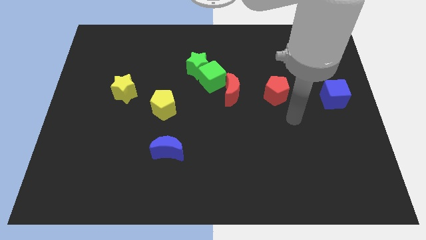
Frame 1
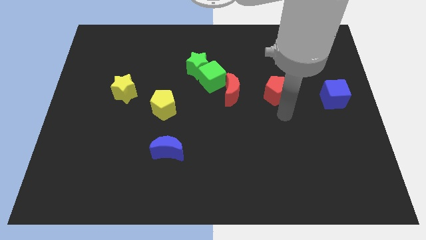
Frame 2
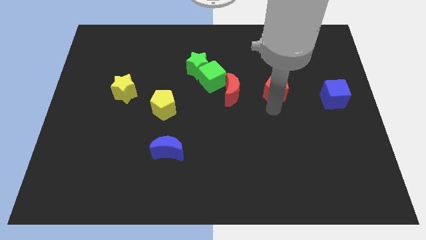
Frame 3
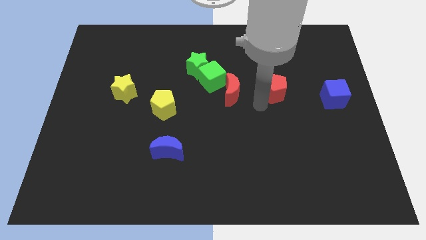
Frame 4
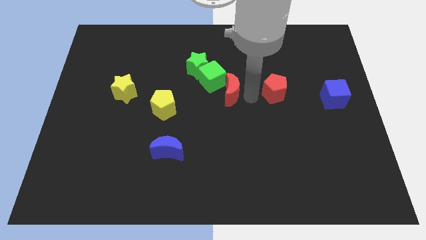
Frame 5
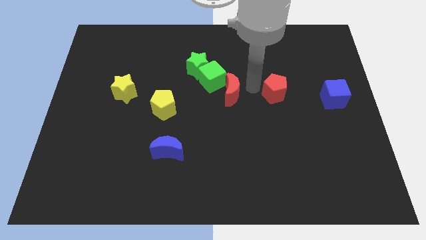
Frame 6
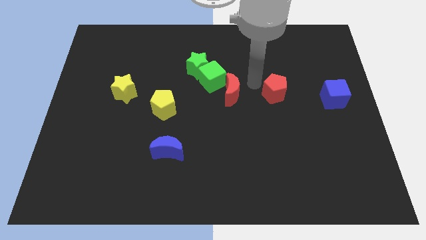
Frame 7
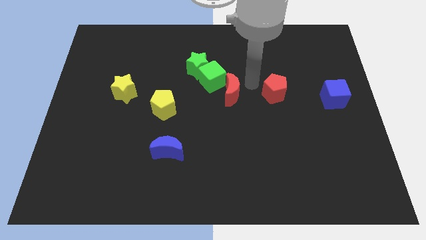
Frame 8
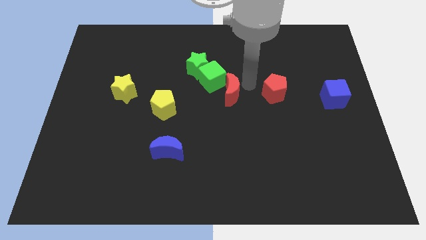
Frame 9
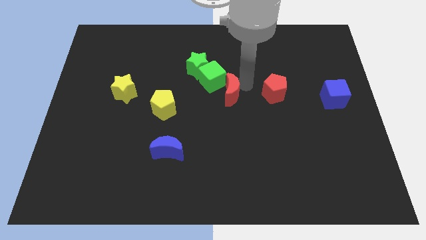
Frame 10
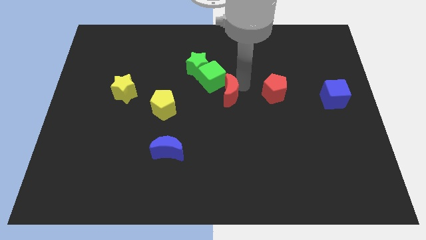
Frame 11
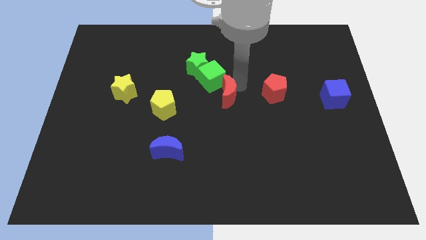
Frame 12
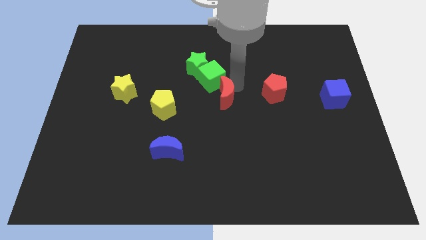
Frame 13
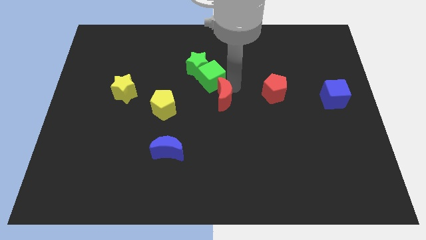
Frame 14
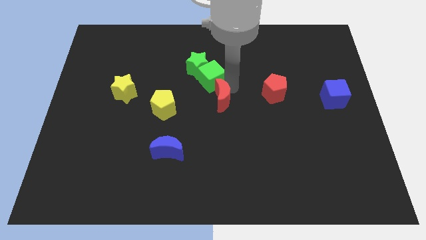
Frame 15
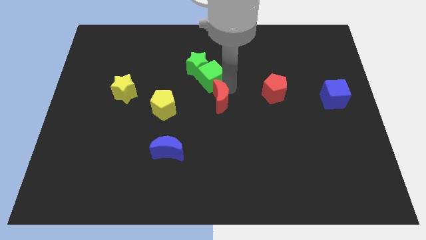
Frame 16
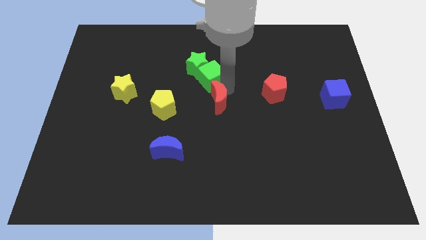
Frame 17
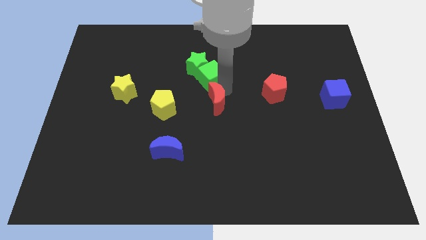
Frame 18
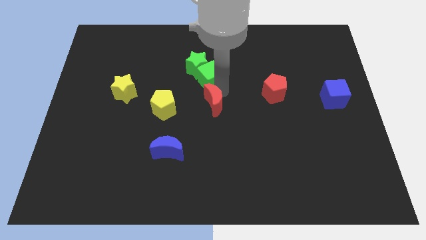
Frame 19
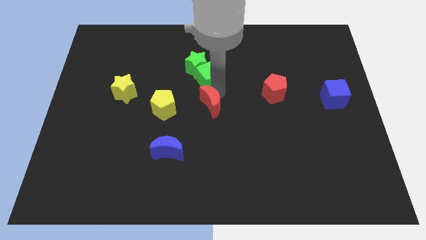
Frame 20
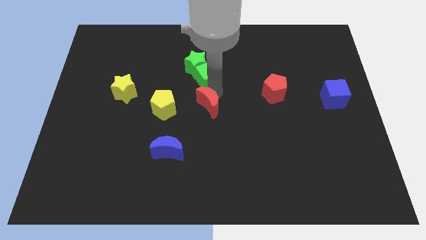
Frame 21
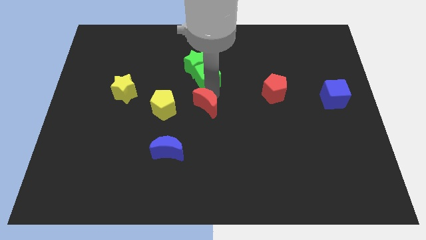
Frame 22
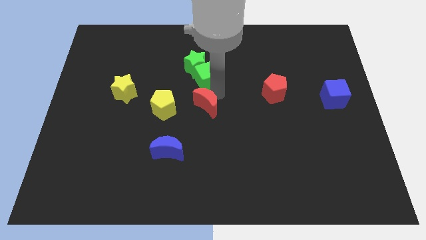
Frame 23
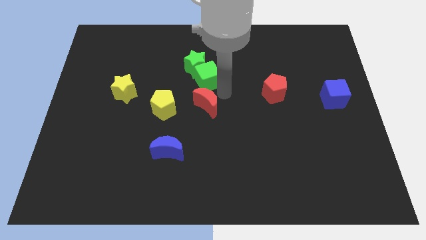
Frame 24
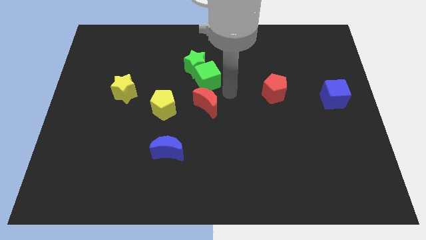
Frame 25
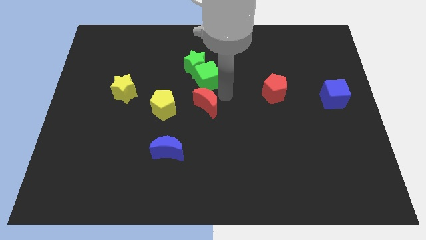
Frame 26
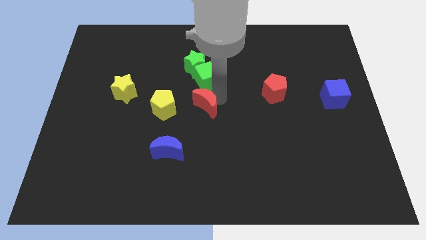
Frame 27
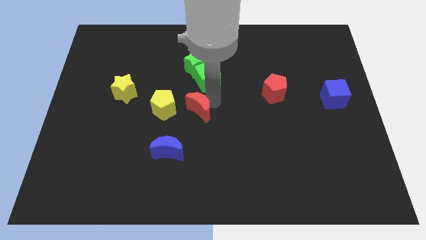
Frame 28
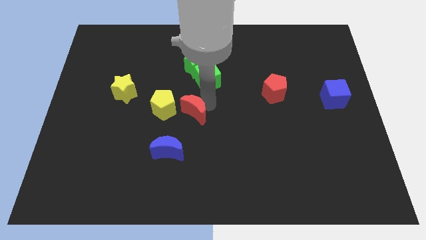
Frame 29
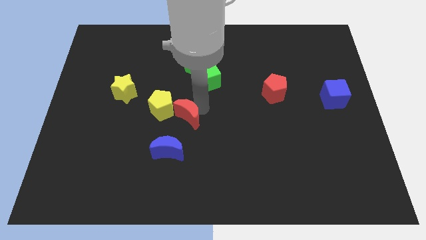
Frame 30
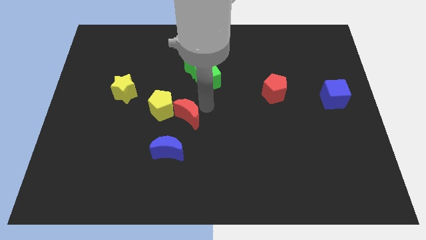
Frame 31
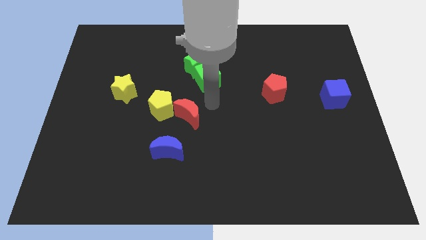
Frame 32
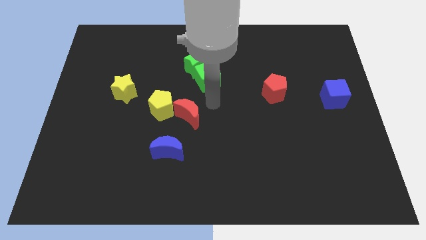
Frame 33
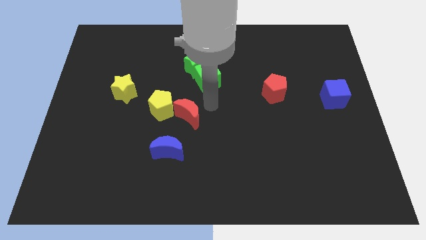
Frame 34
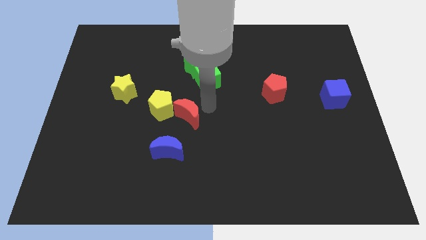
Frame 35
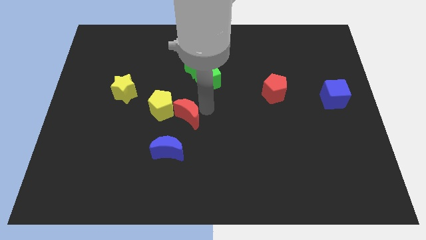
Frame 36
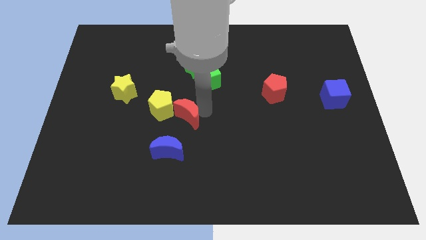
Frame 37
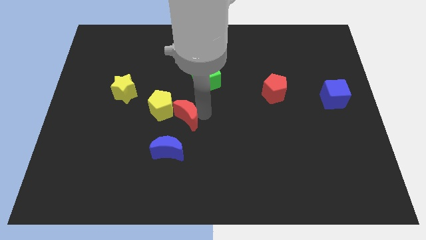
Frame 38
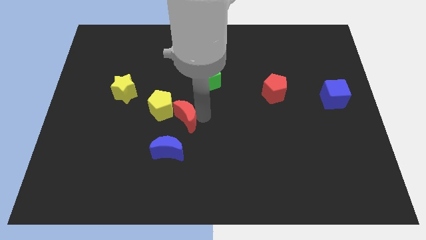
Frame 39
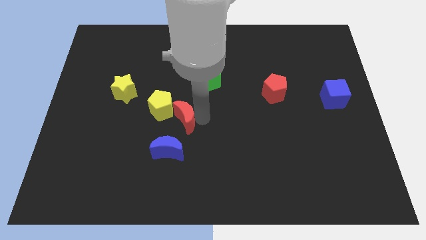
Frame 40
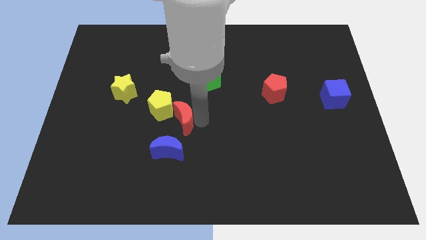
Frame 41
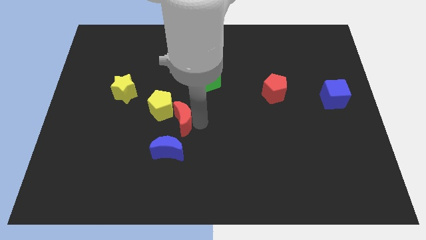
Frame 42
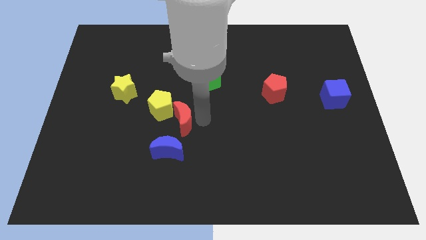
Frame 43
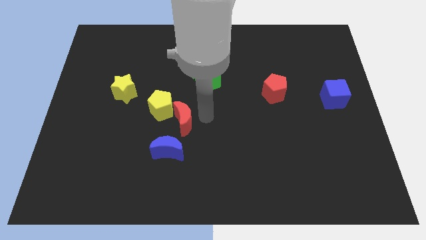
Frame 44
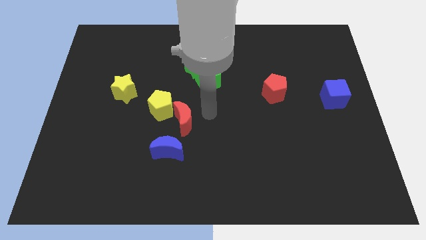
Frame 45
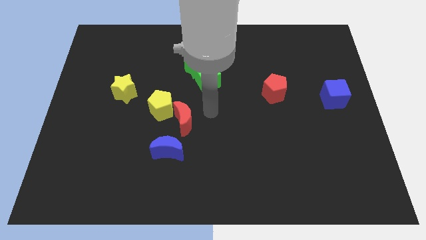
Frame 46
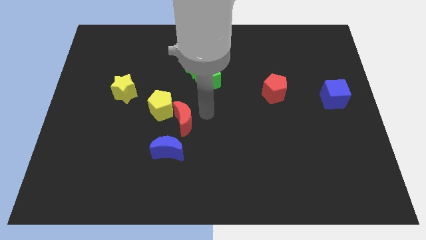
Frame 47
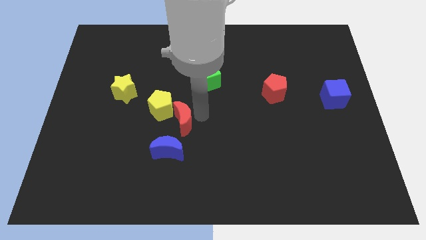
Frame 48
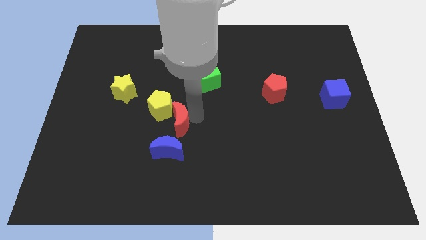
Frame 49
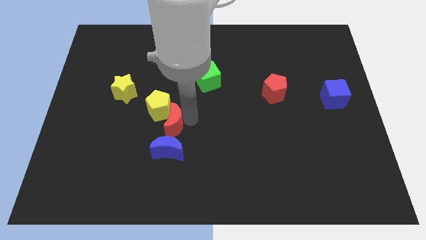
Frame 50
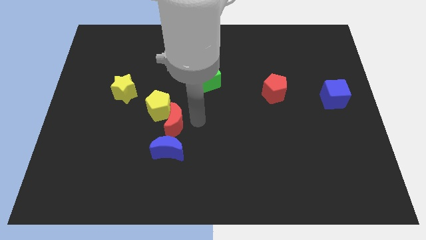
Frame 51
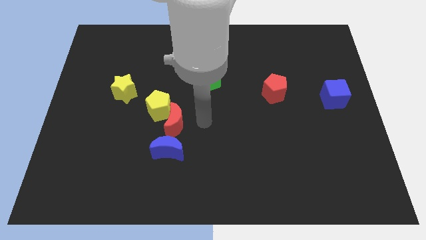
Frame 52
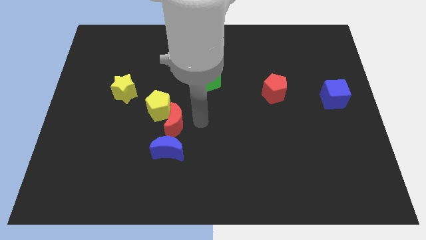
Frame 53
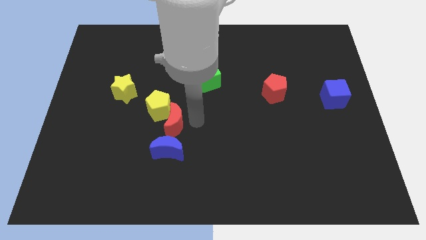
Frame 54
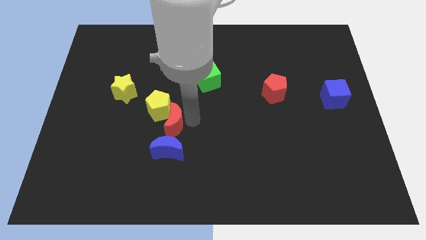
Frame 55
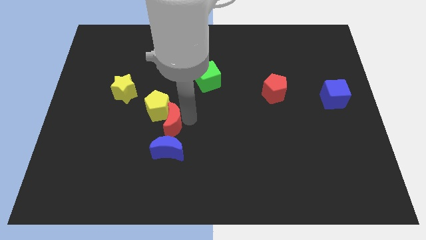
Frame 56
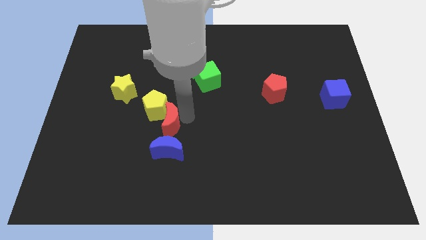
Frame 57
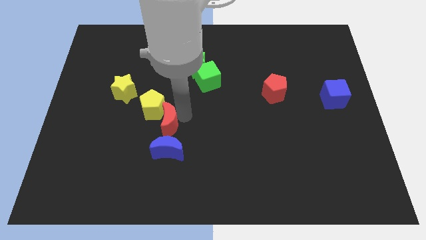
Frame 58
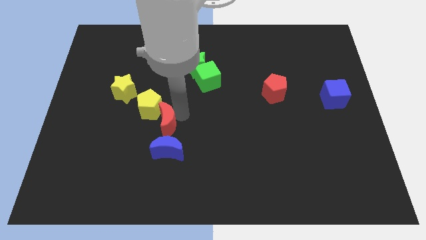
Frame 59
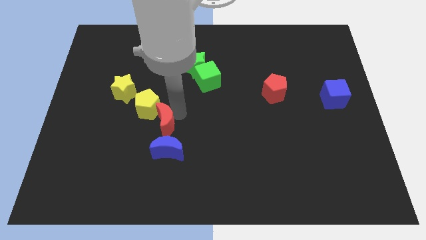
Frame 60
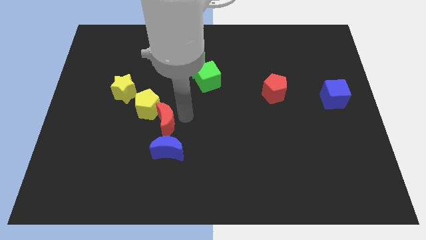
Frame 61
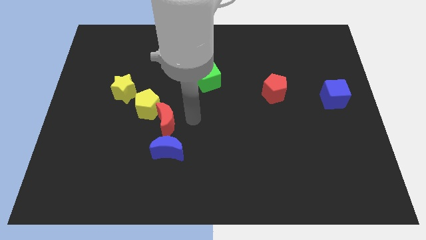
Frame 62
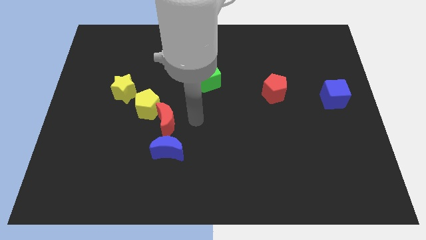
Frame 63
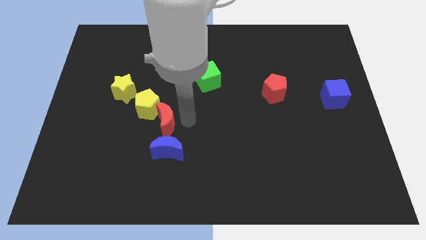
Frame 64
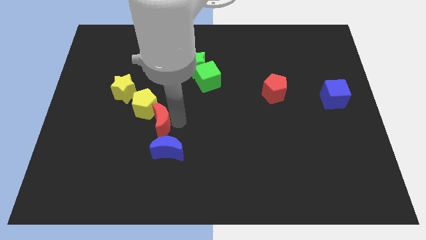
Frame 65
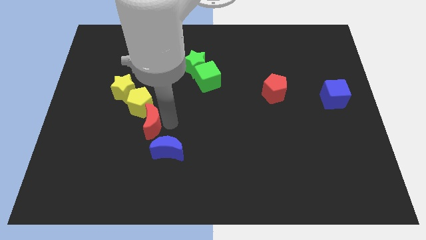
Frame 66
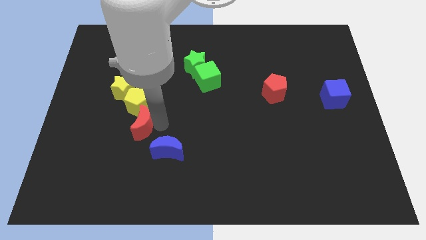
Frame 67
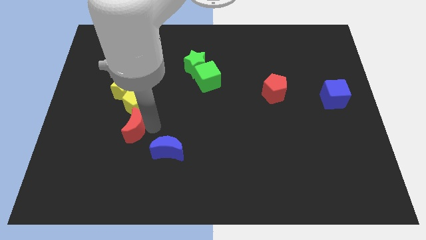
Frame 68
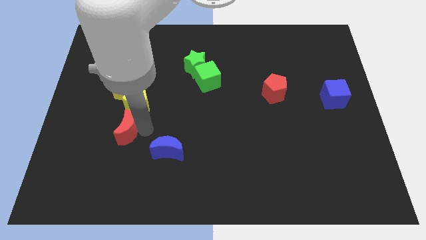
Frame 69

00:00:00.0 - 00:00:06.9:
move the red moon diagonally down and to the left of the yellow pentagon
